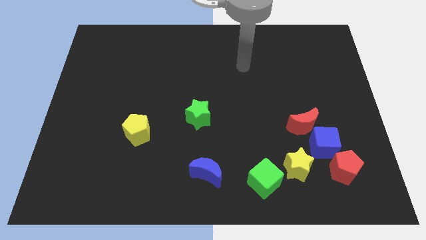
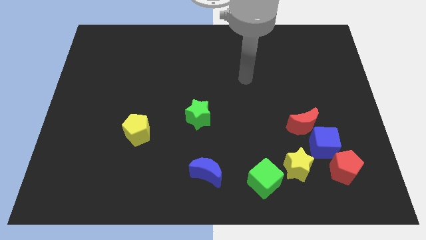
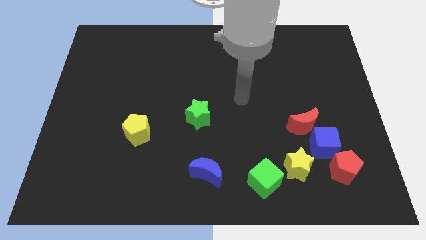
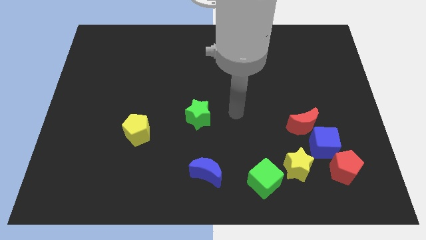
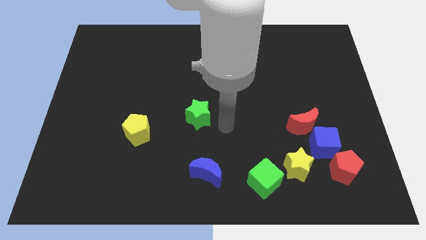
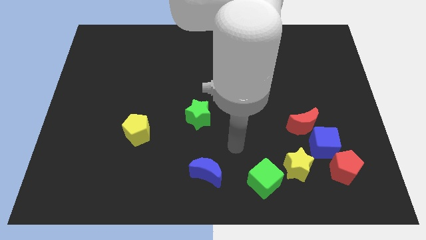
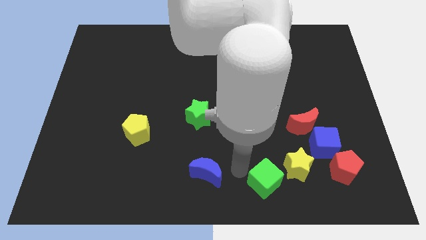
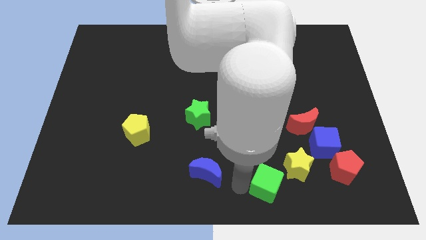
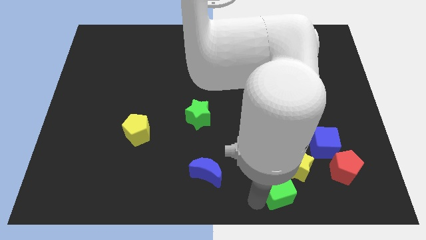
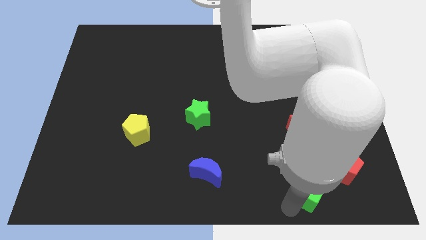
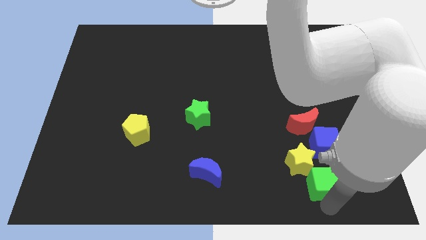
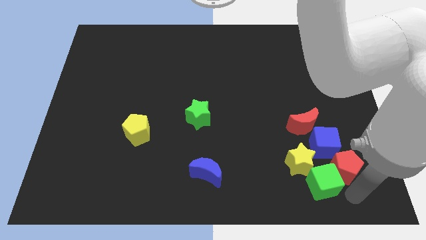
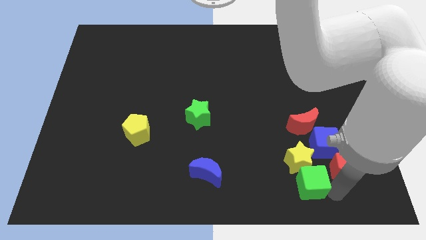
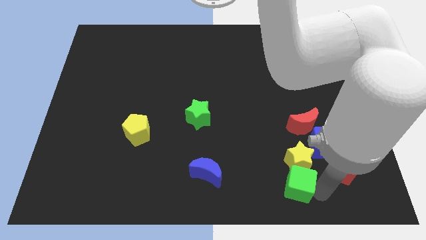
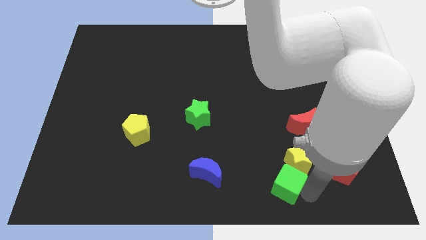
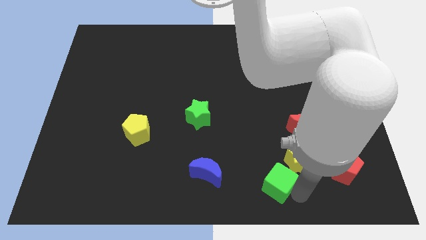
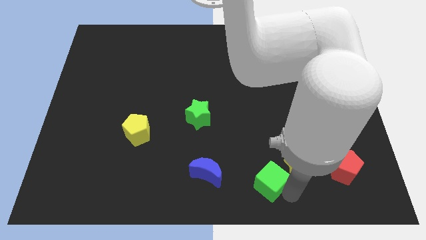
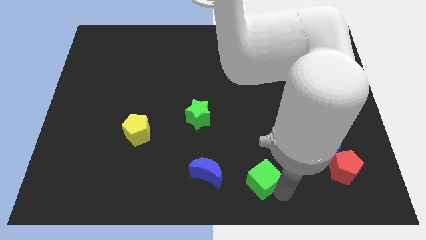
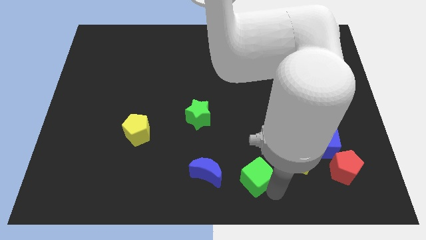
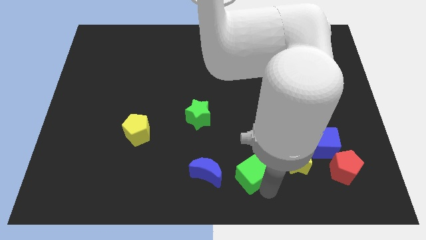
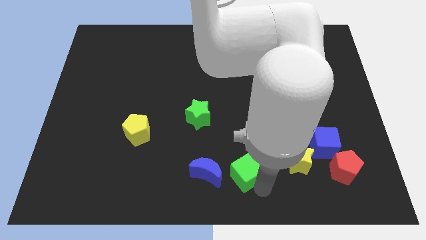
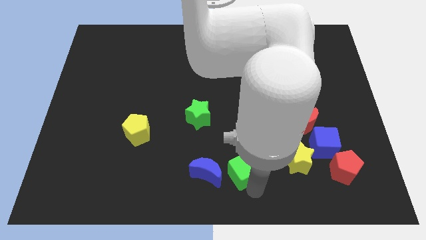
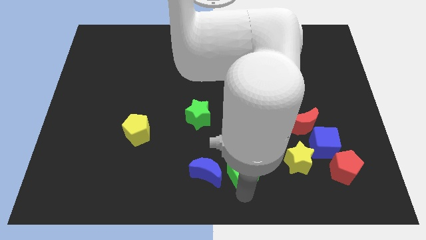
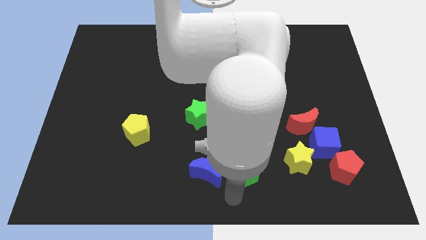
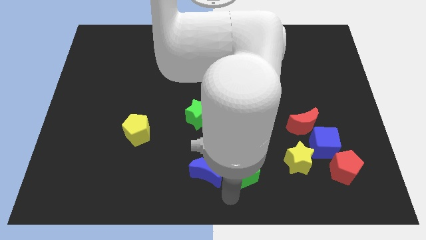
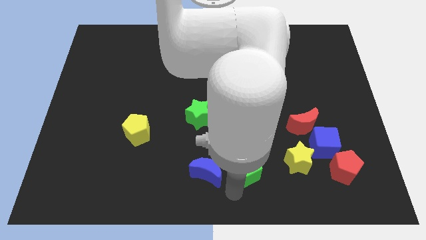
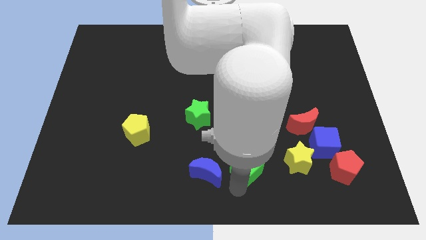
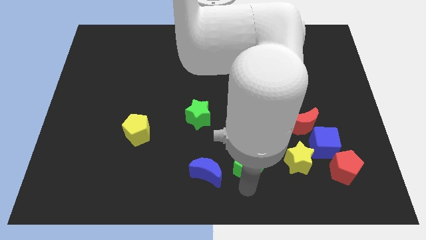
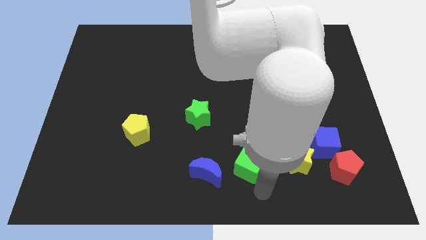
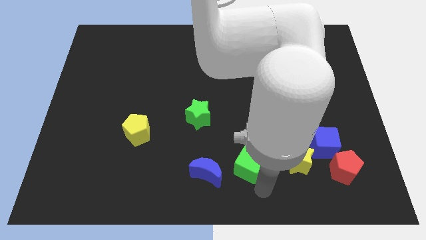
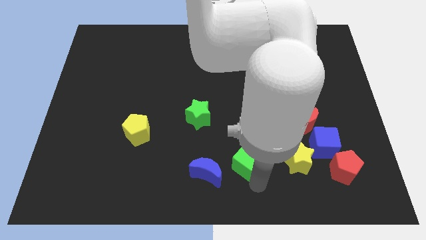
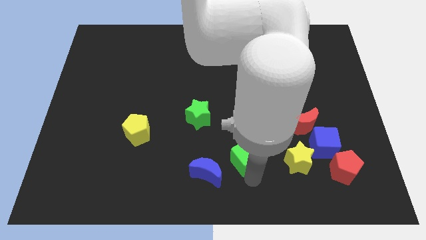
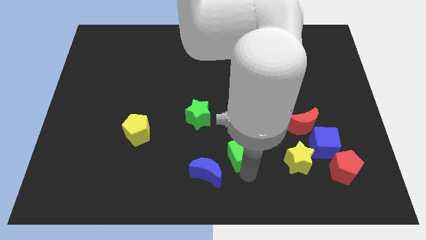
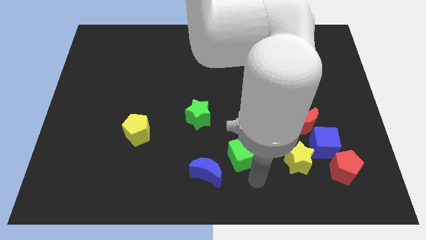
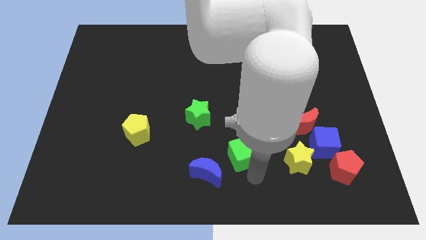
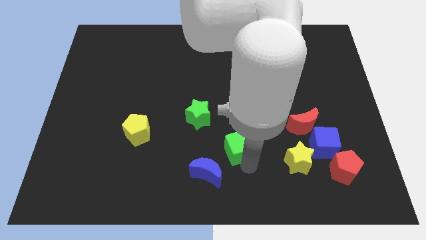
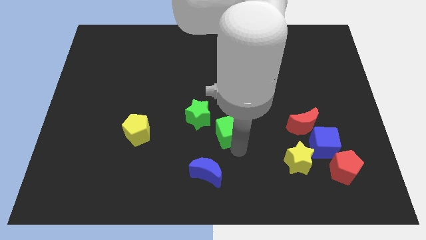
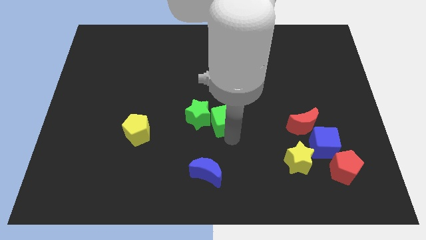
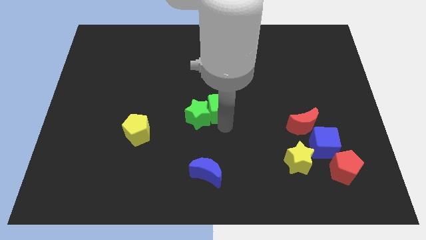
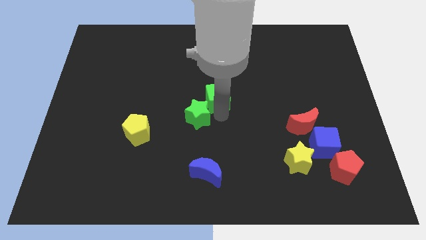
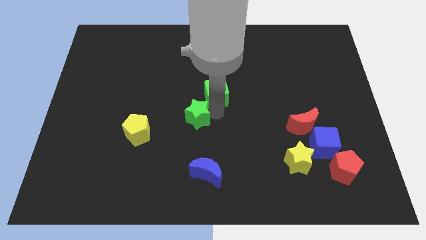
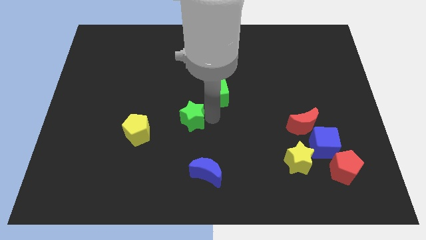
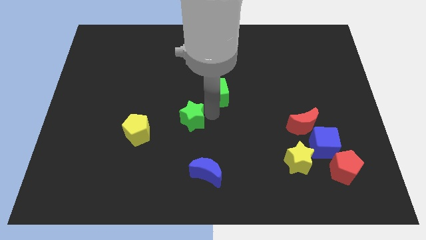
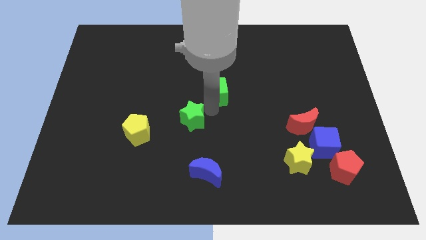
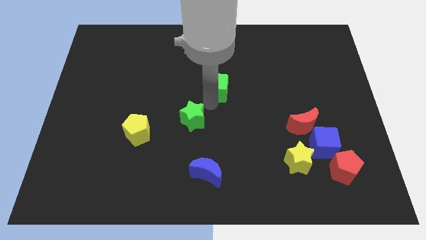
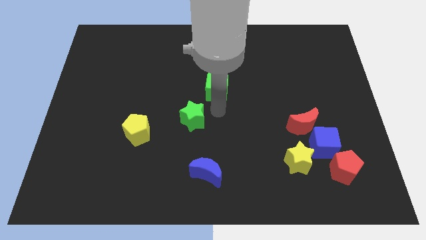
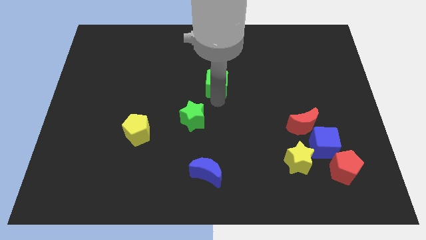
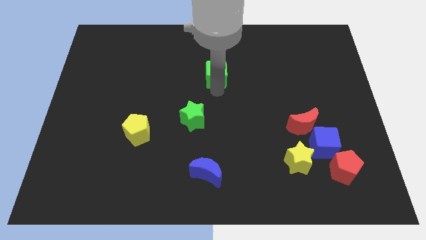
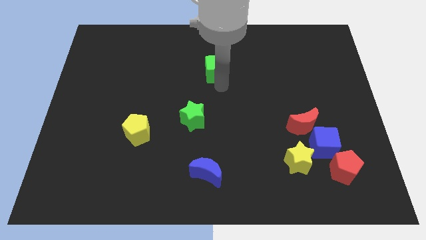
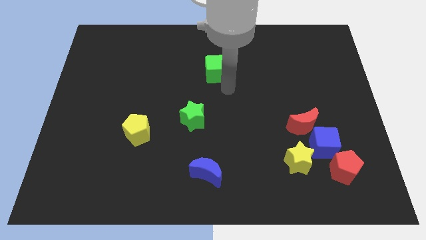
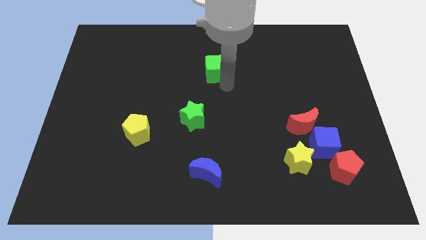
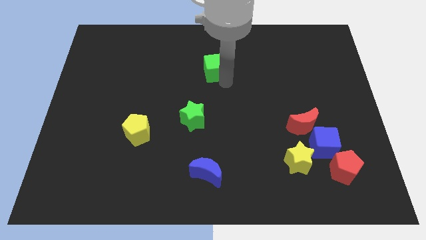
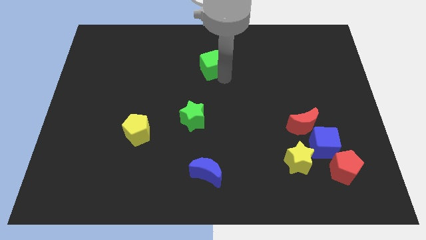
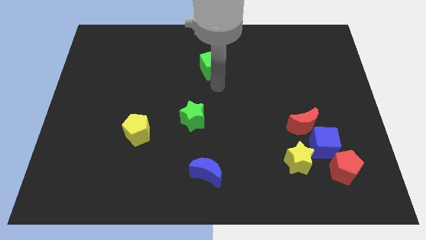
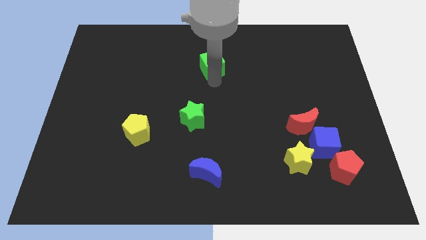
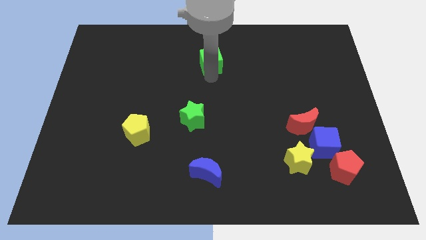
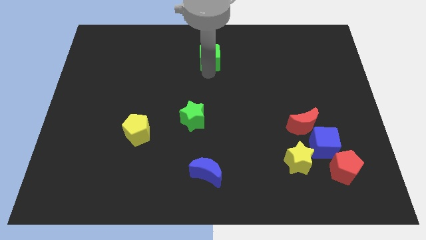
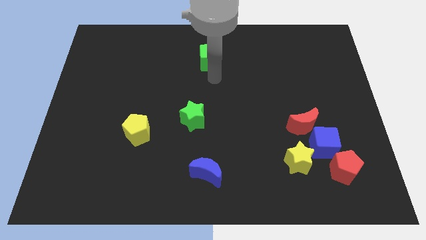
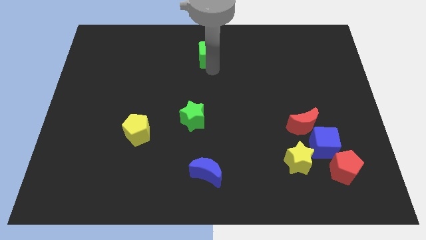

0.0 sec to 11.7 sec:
put the green cube to the top side

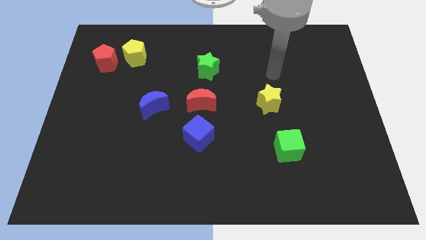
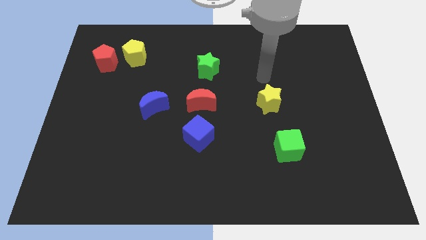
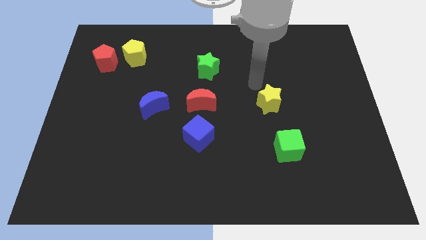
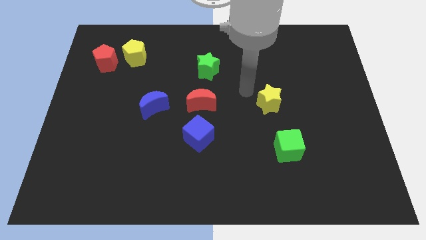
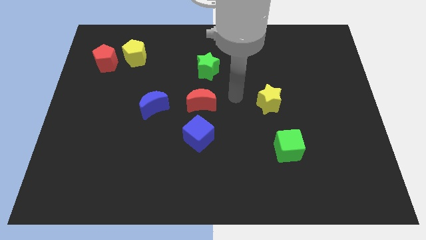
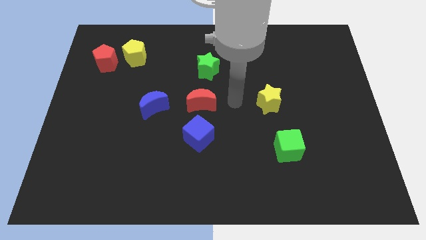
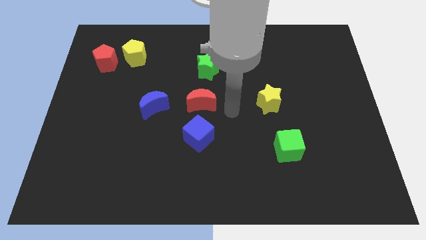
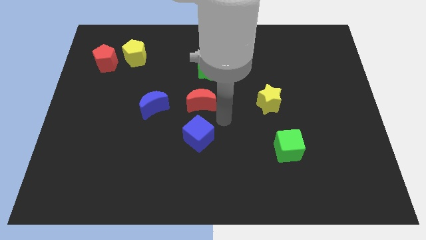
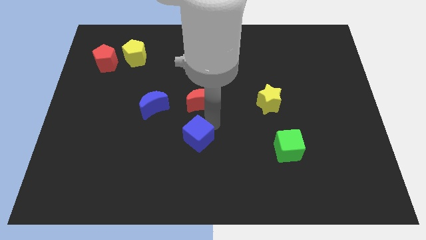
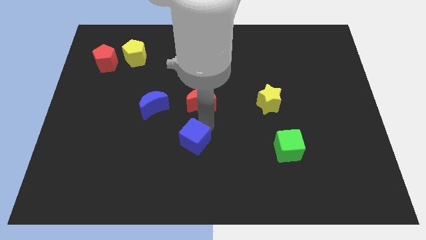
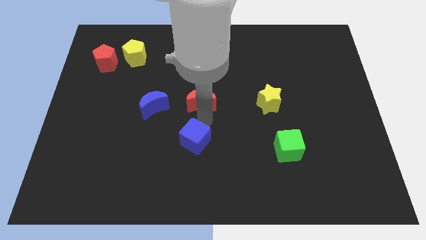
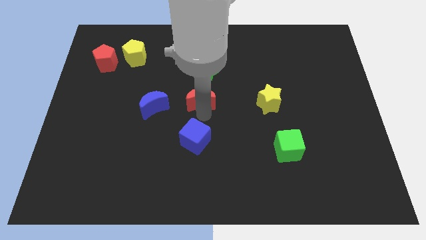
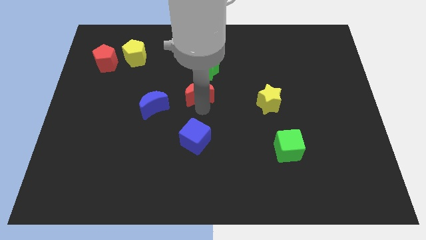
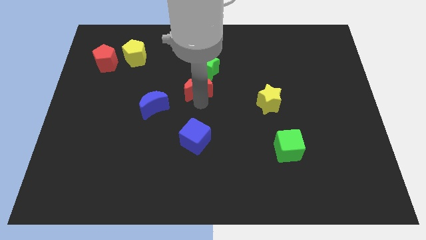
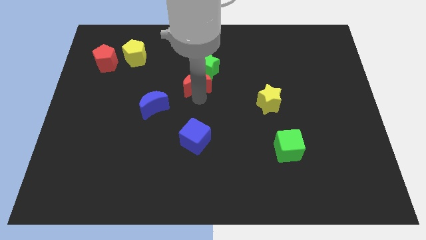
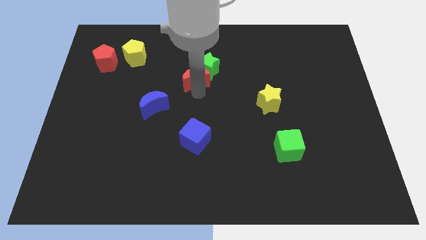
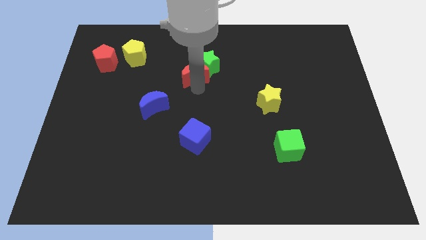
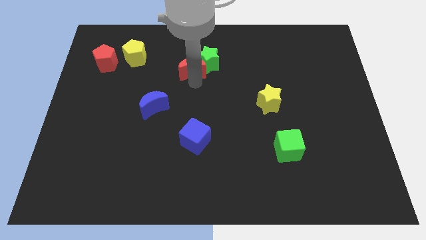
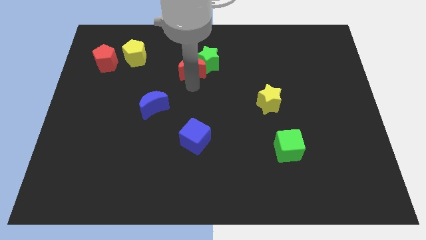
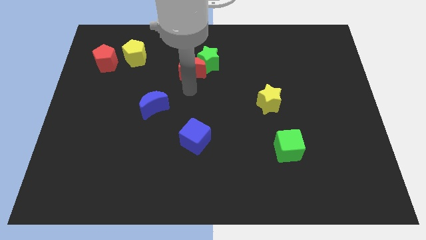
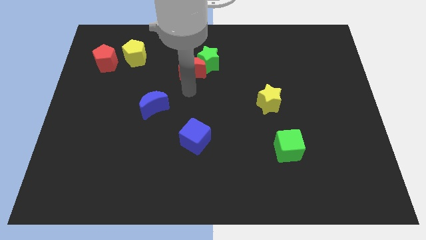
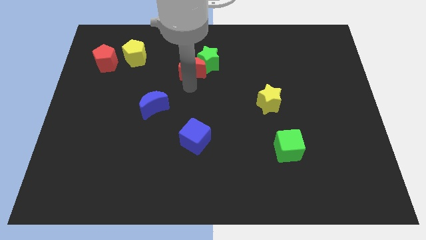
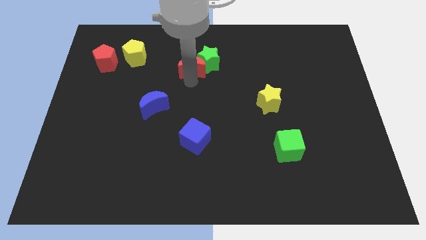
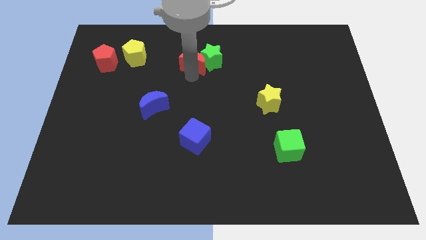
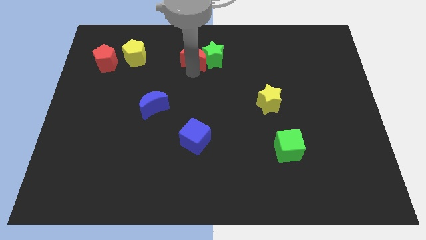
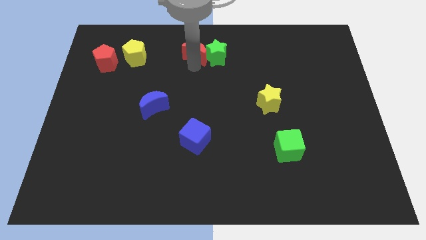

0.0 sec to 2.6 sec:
slide the red moon to the top
